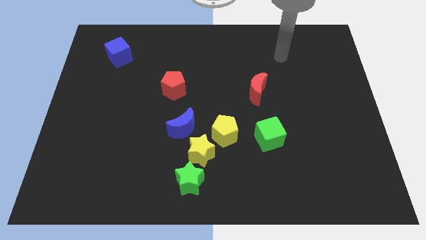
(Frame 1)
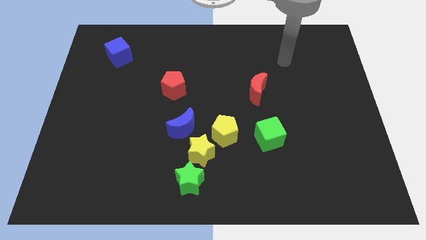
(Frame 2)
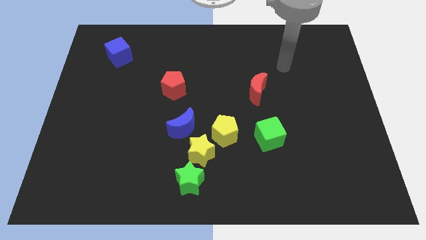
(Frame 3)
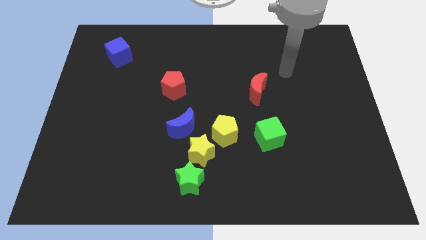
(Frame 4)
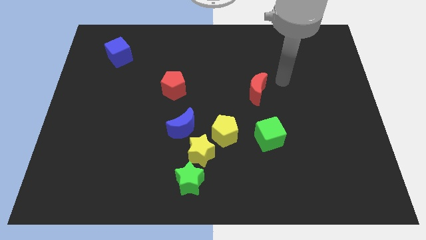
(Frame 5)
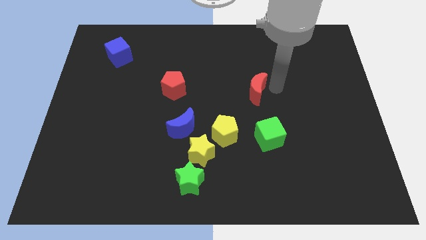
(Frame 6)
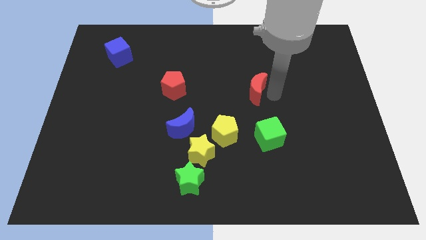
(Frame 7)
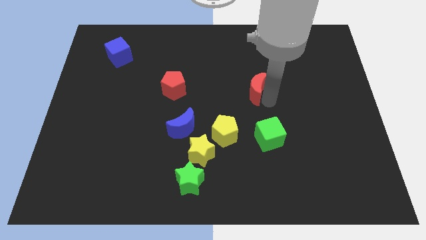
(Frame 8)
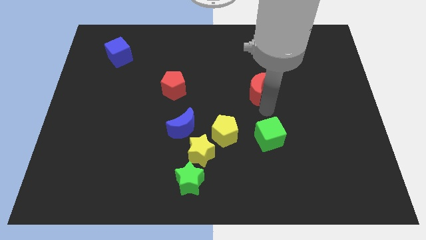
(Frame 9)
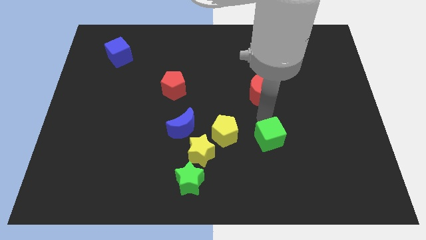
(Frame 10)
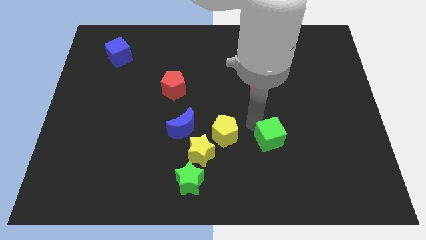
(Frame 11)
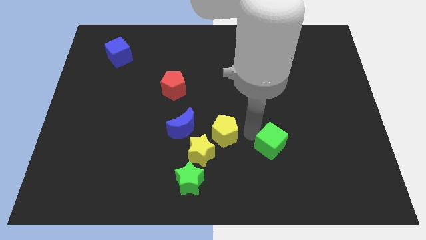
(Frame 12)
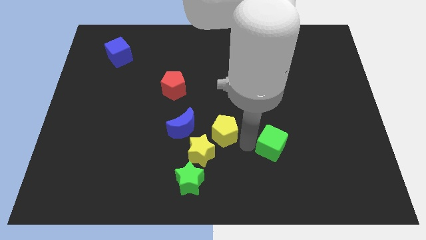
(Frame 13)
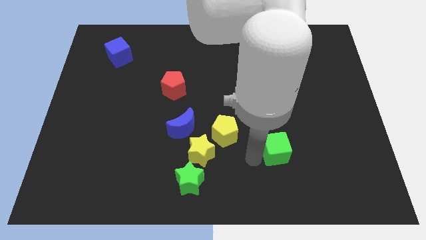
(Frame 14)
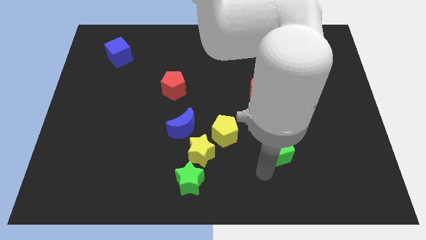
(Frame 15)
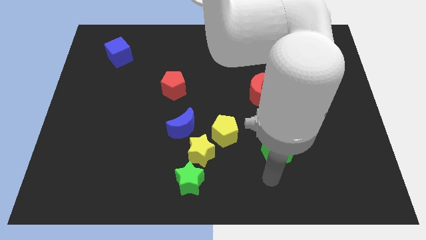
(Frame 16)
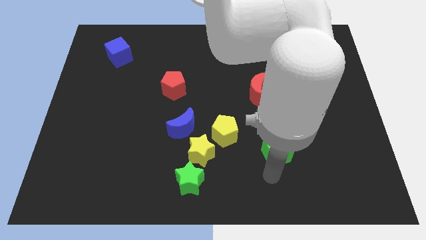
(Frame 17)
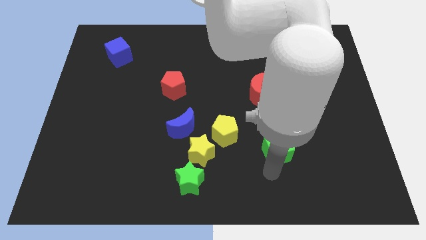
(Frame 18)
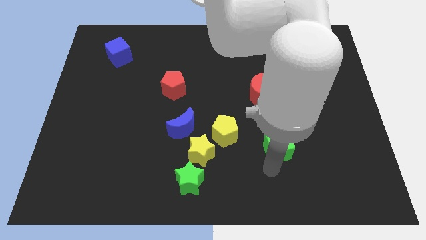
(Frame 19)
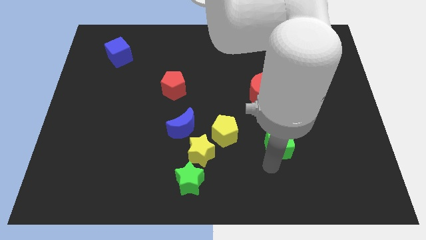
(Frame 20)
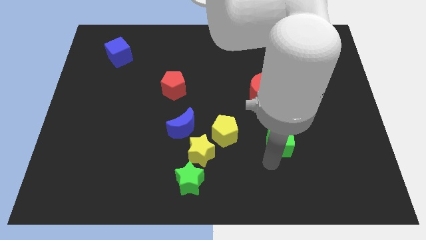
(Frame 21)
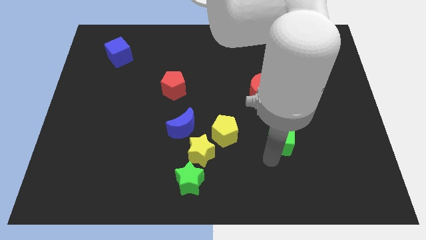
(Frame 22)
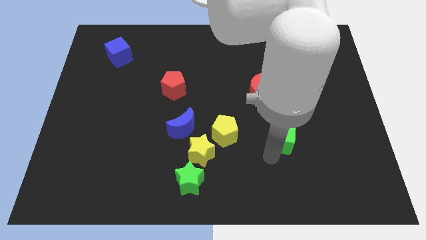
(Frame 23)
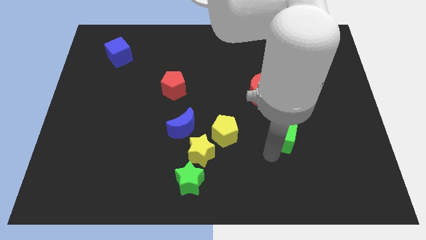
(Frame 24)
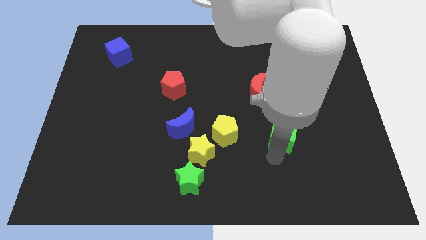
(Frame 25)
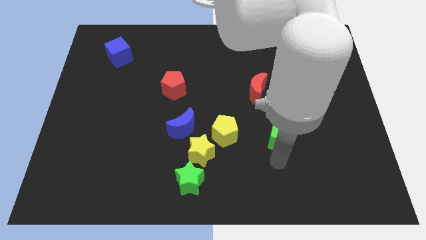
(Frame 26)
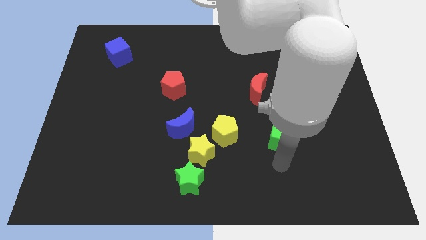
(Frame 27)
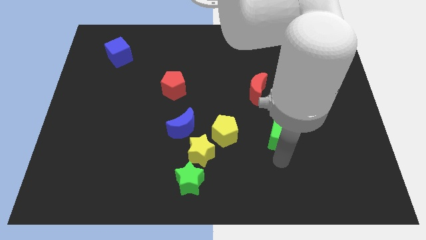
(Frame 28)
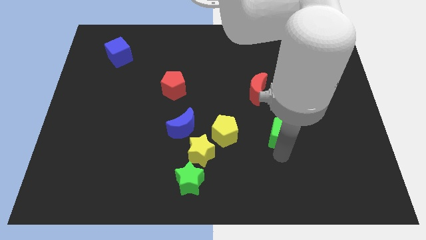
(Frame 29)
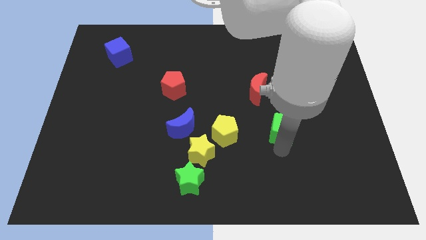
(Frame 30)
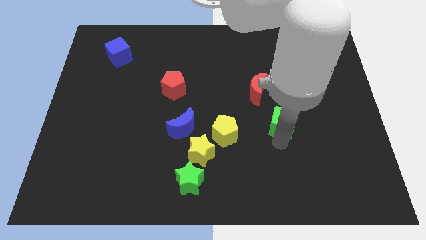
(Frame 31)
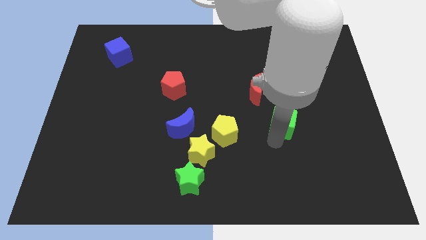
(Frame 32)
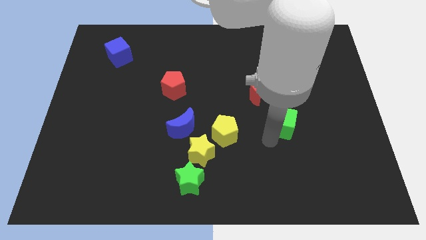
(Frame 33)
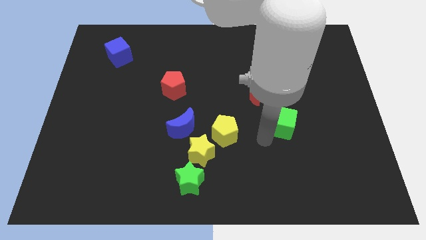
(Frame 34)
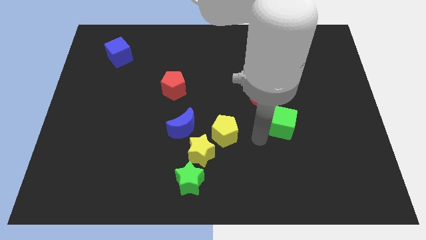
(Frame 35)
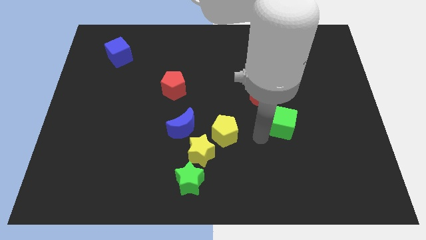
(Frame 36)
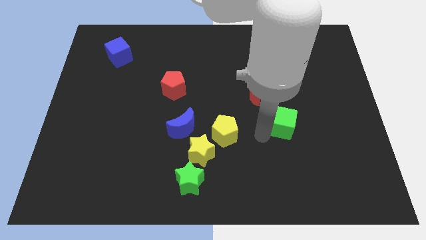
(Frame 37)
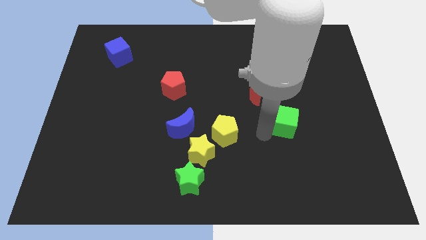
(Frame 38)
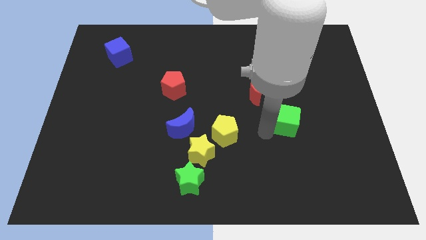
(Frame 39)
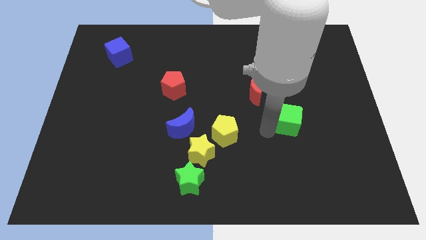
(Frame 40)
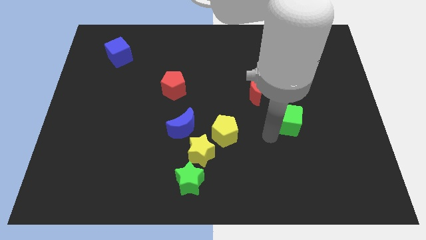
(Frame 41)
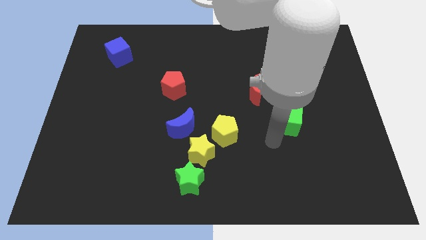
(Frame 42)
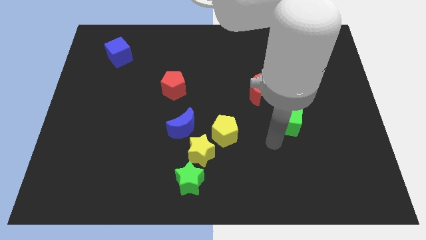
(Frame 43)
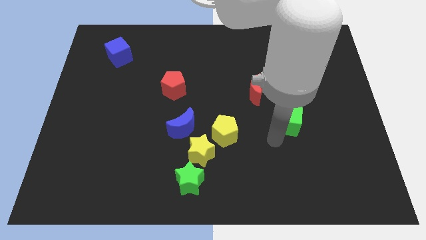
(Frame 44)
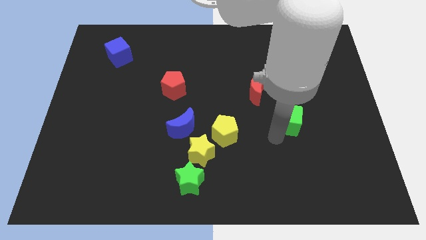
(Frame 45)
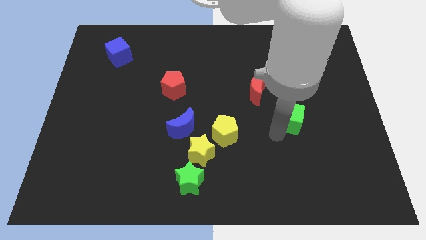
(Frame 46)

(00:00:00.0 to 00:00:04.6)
slide the green cube a little bit up and right diagonally

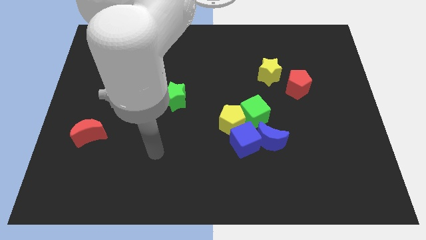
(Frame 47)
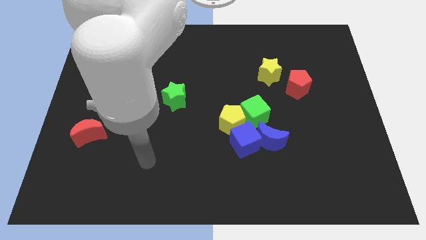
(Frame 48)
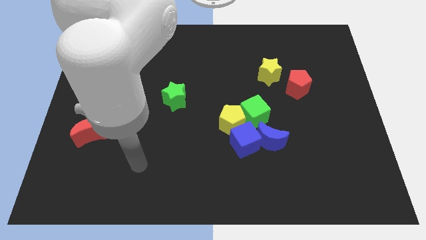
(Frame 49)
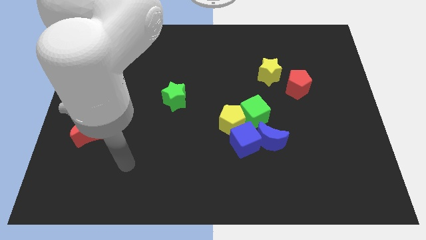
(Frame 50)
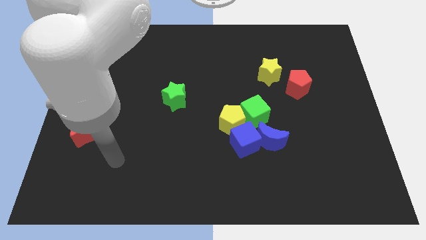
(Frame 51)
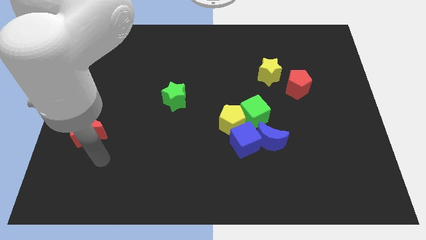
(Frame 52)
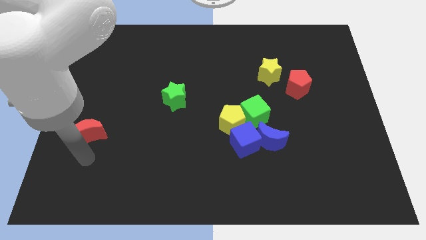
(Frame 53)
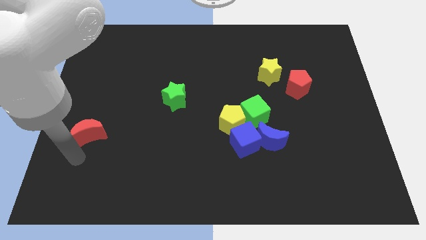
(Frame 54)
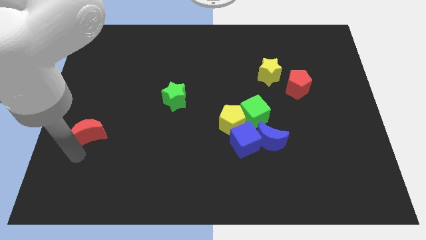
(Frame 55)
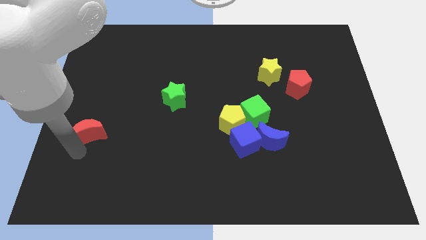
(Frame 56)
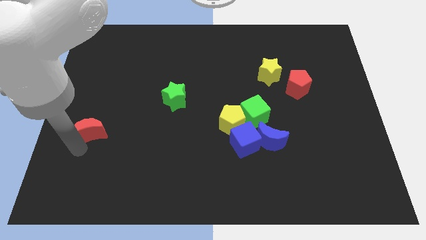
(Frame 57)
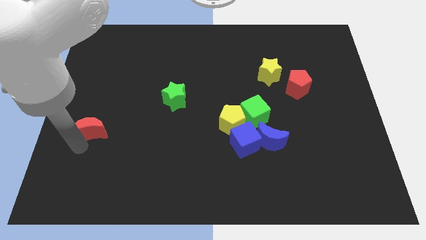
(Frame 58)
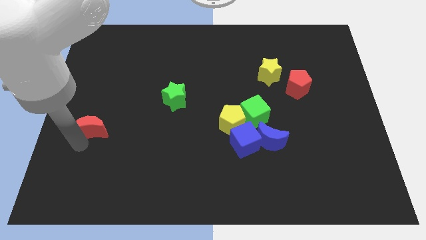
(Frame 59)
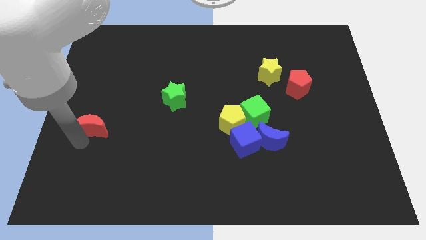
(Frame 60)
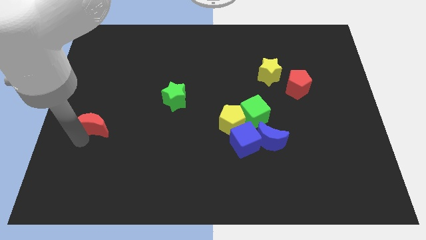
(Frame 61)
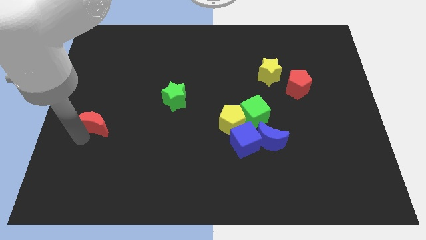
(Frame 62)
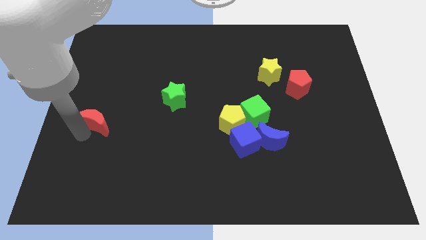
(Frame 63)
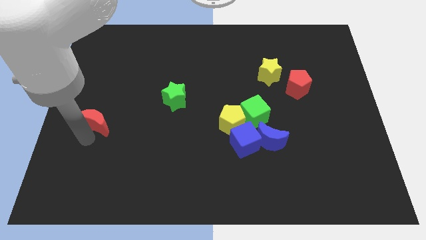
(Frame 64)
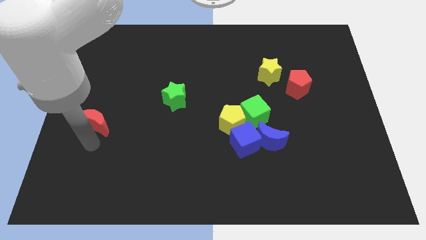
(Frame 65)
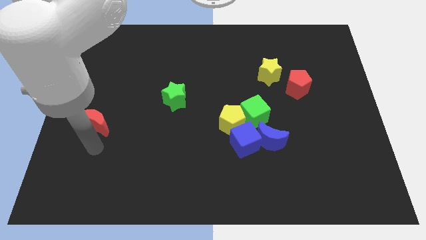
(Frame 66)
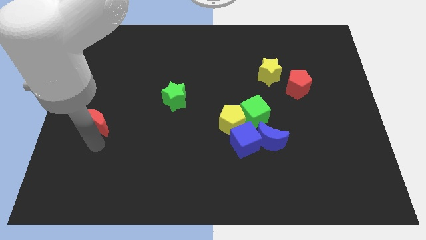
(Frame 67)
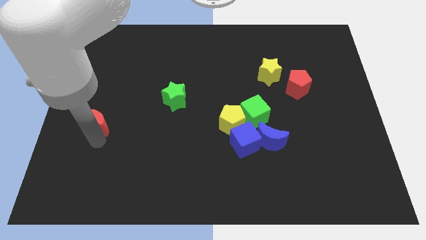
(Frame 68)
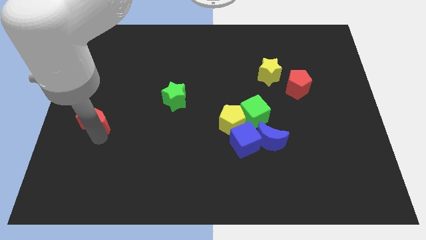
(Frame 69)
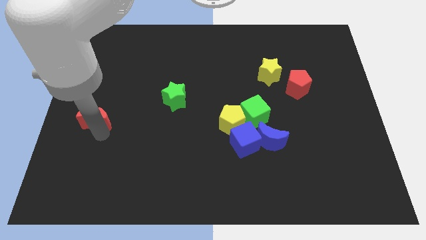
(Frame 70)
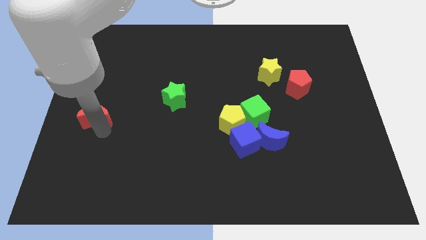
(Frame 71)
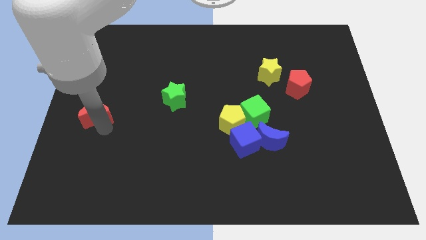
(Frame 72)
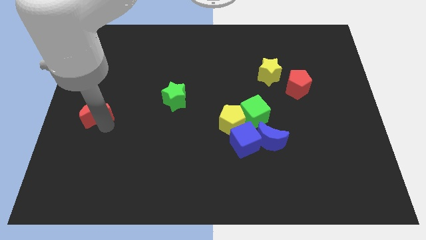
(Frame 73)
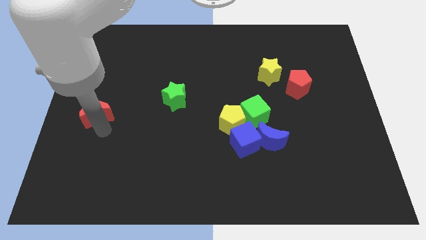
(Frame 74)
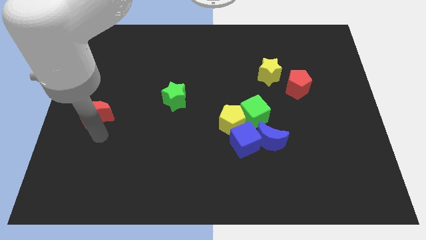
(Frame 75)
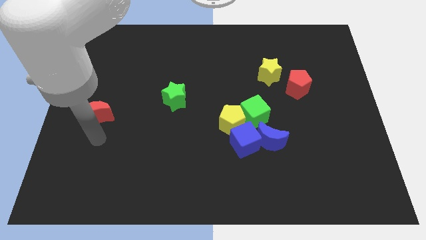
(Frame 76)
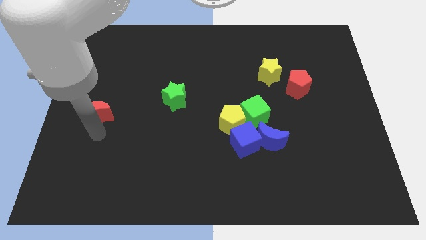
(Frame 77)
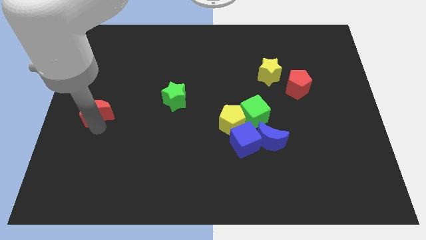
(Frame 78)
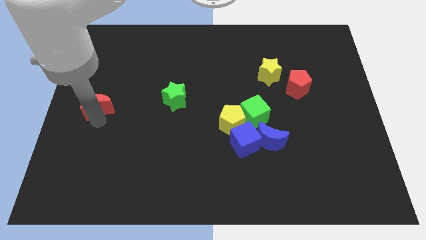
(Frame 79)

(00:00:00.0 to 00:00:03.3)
slightly slide the red moon upwards
